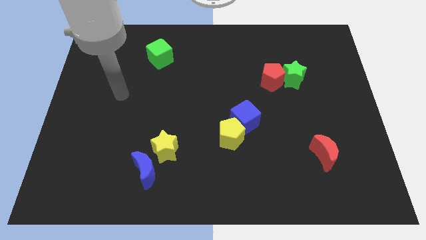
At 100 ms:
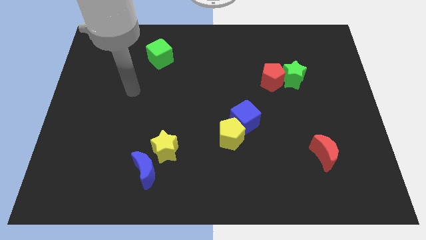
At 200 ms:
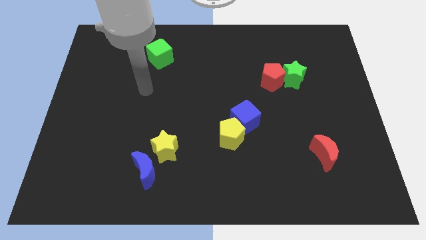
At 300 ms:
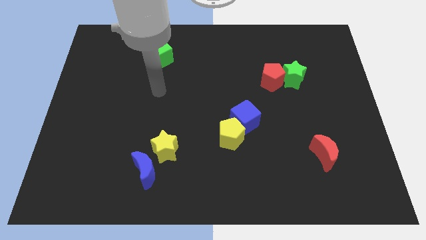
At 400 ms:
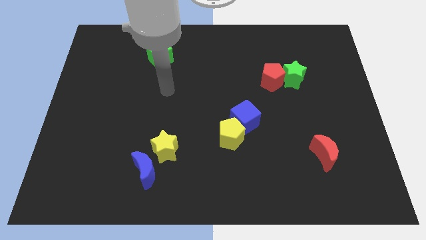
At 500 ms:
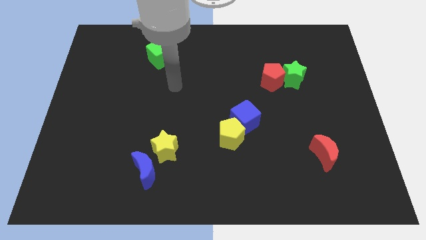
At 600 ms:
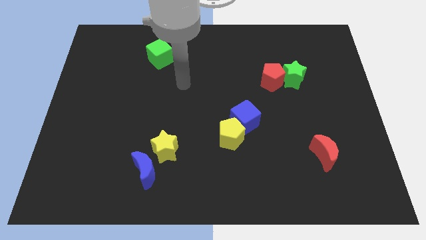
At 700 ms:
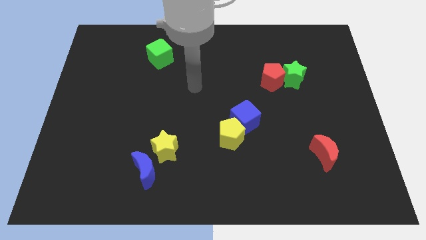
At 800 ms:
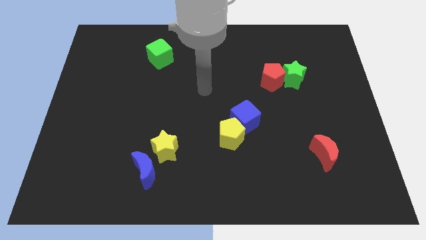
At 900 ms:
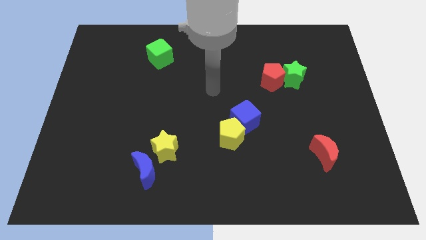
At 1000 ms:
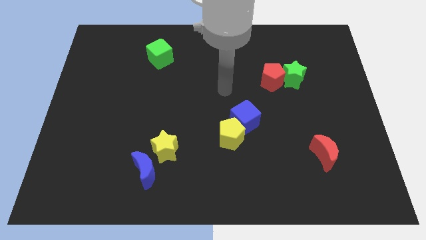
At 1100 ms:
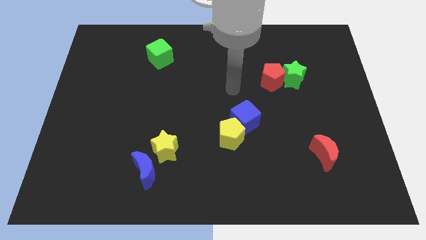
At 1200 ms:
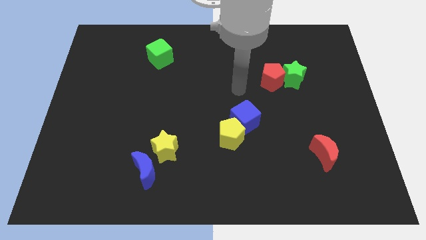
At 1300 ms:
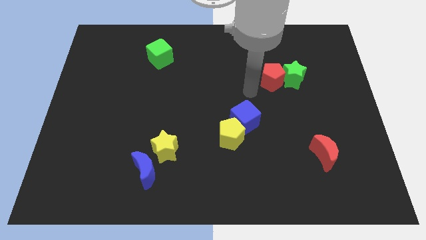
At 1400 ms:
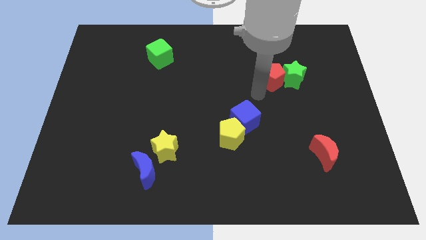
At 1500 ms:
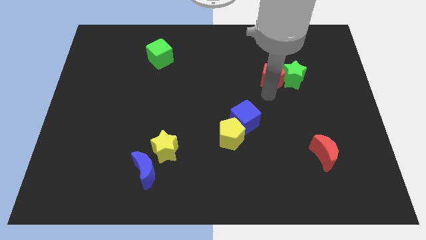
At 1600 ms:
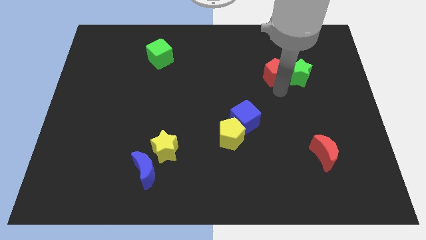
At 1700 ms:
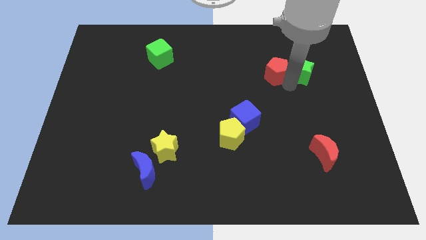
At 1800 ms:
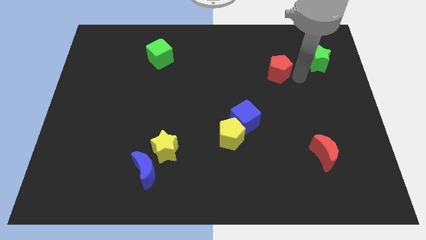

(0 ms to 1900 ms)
pull the red pentagon apart from the green star

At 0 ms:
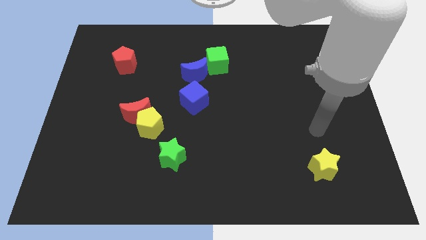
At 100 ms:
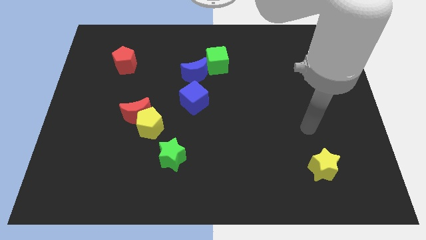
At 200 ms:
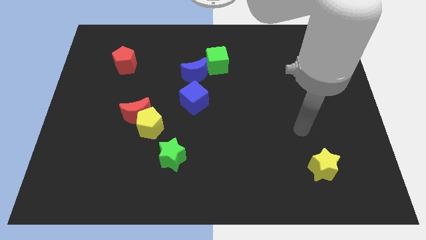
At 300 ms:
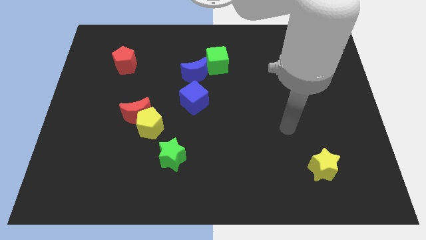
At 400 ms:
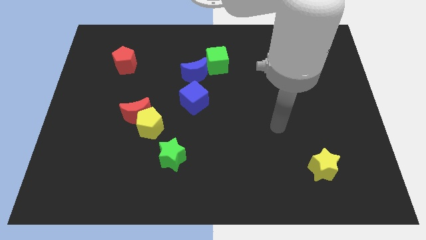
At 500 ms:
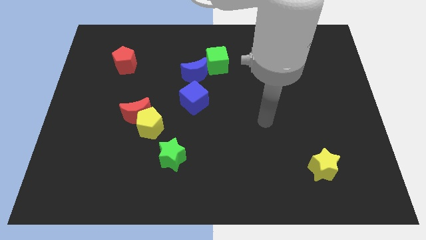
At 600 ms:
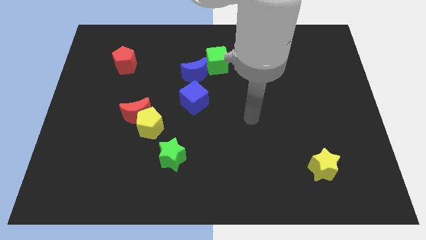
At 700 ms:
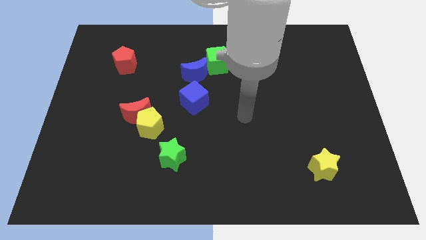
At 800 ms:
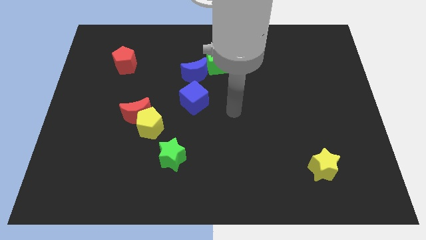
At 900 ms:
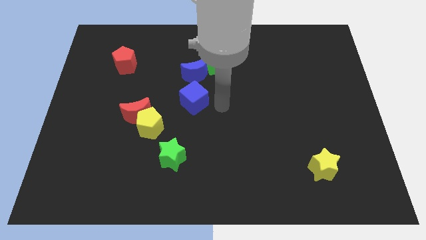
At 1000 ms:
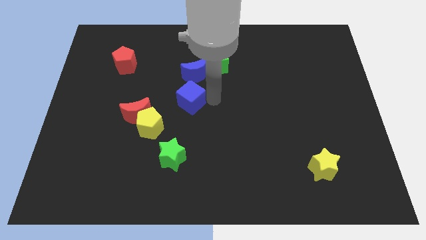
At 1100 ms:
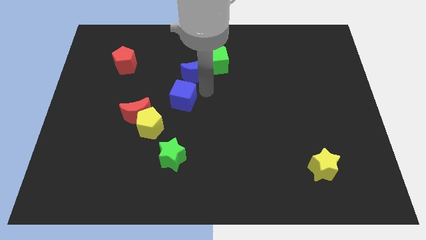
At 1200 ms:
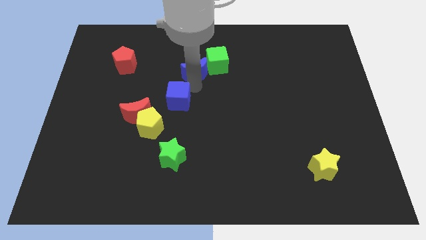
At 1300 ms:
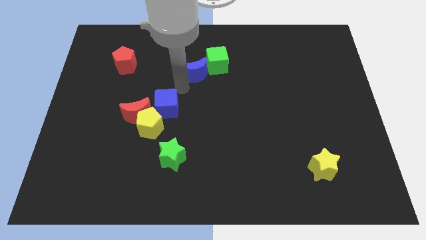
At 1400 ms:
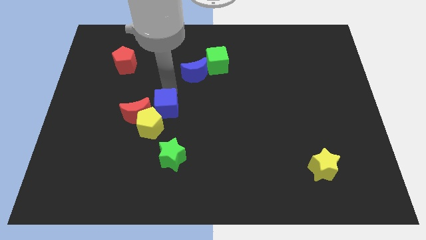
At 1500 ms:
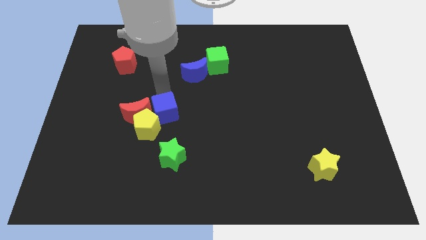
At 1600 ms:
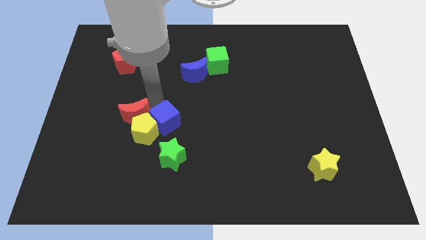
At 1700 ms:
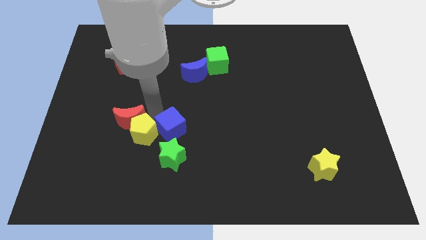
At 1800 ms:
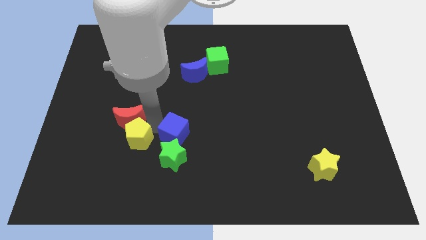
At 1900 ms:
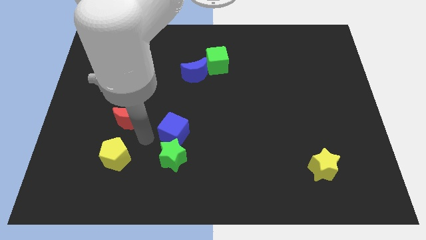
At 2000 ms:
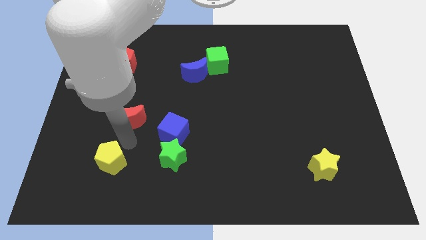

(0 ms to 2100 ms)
pull the red moon apart from the yellow pentagon

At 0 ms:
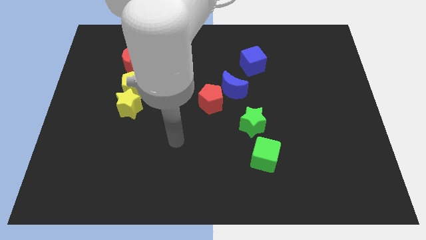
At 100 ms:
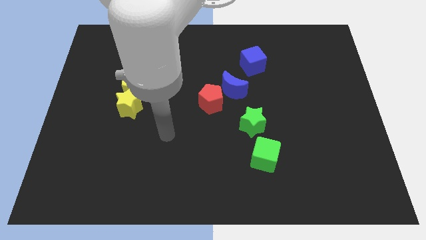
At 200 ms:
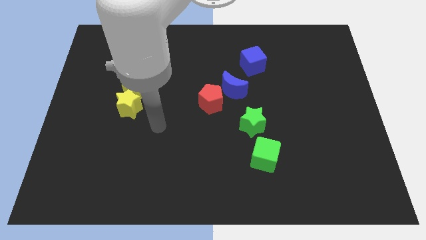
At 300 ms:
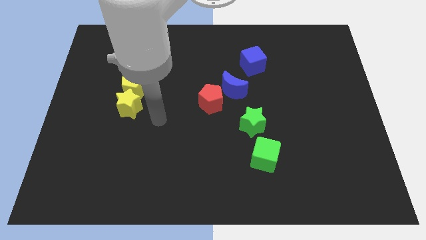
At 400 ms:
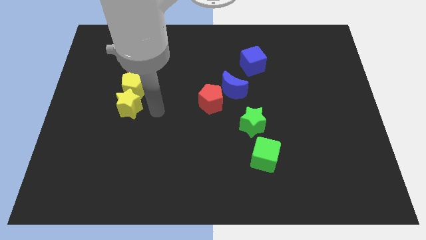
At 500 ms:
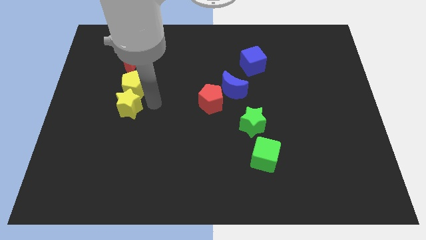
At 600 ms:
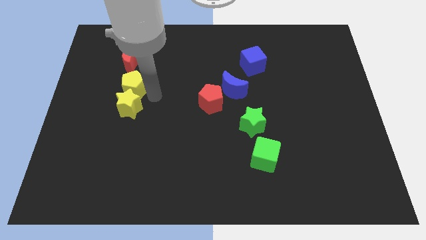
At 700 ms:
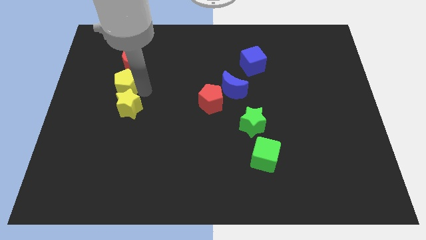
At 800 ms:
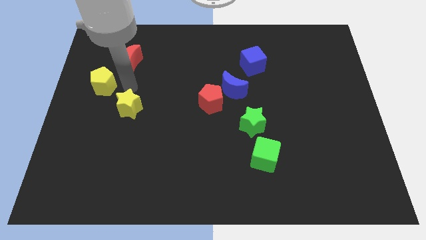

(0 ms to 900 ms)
pull the yellow star apart from the yellow pentagon

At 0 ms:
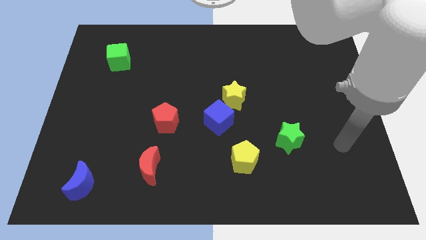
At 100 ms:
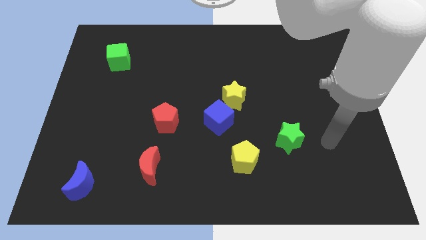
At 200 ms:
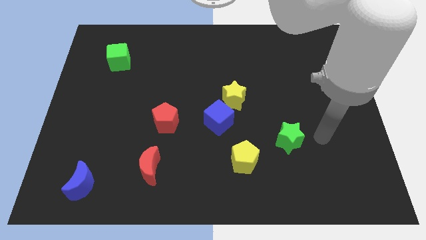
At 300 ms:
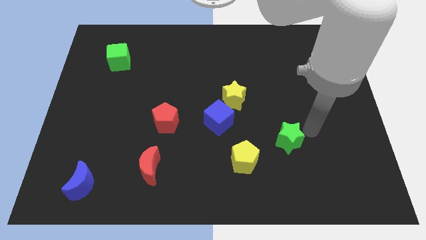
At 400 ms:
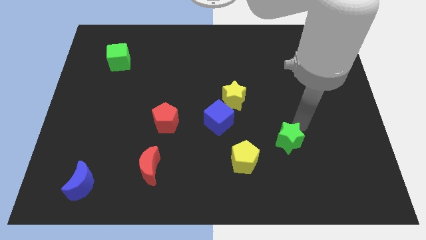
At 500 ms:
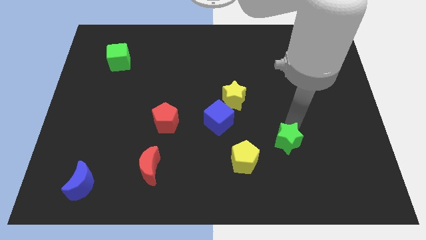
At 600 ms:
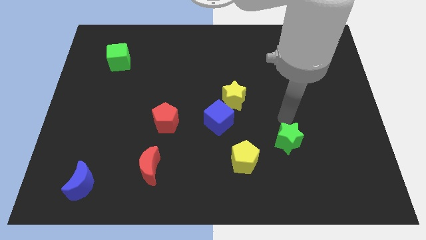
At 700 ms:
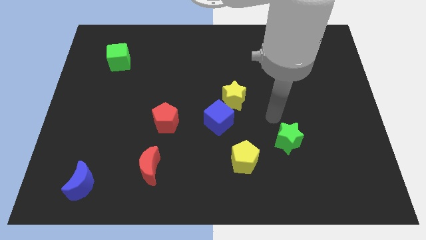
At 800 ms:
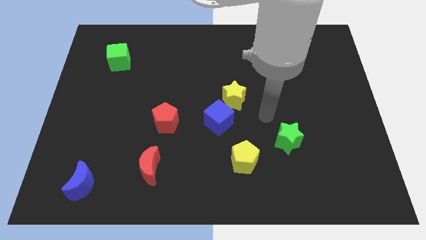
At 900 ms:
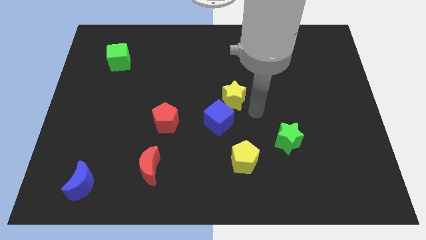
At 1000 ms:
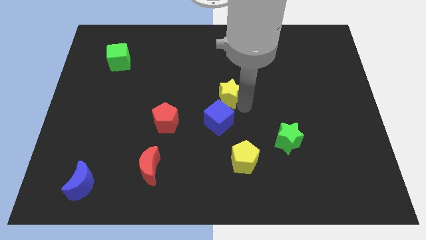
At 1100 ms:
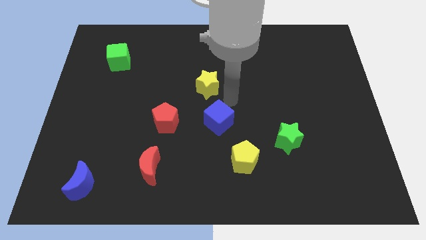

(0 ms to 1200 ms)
pull the blue cube apart from the yellow star

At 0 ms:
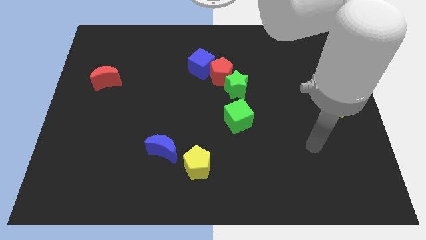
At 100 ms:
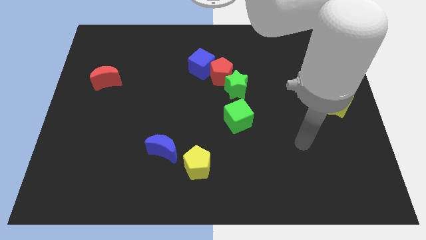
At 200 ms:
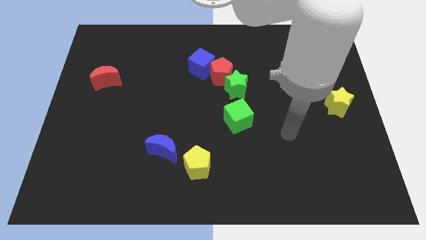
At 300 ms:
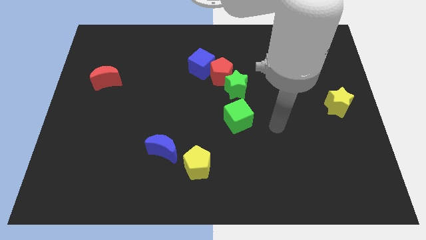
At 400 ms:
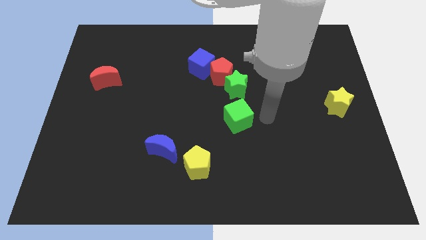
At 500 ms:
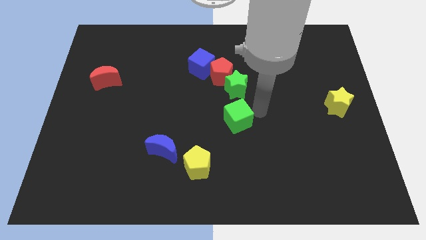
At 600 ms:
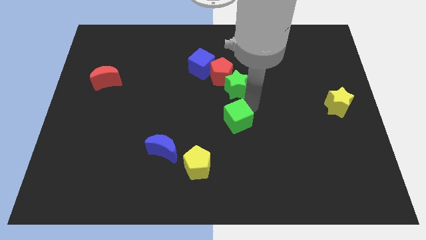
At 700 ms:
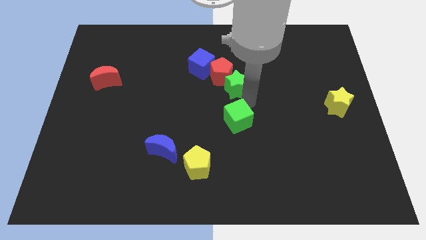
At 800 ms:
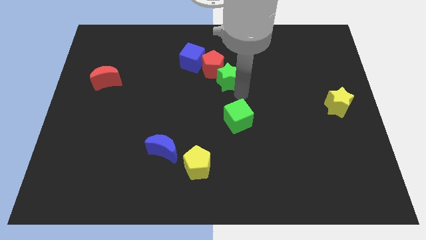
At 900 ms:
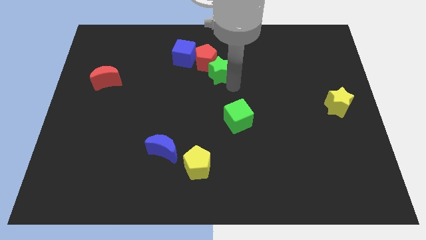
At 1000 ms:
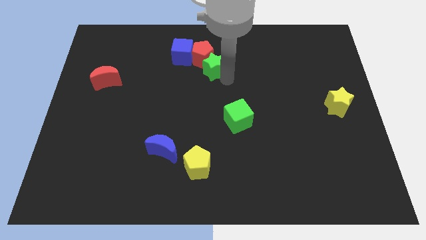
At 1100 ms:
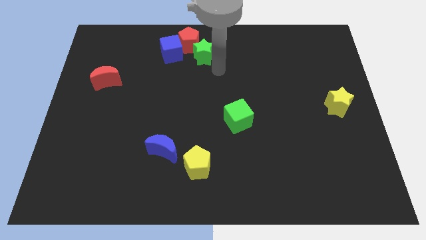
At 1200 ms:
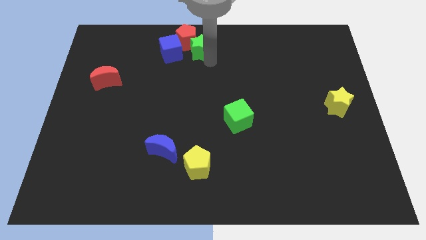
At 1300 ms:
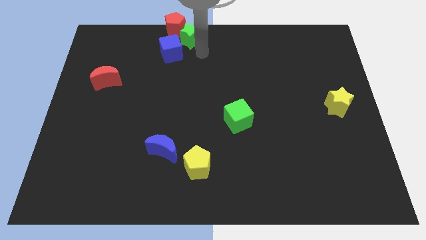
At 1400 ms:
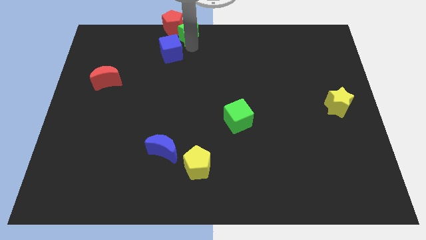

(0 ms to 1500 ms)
separate the blue cube from the red pentagon

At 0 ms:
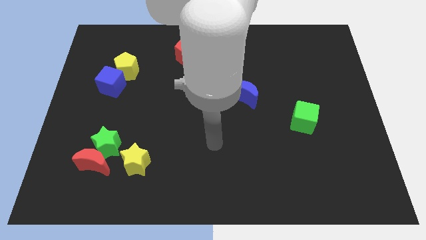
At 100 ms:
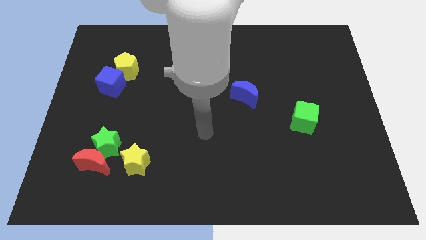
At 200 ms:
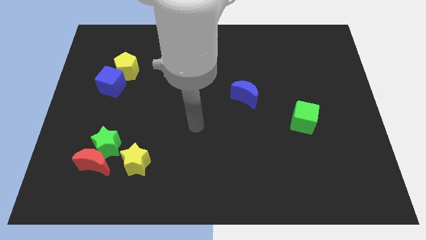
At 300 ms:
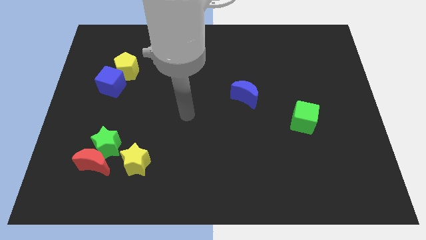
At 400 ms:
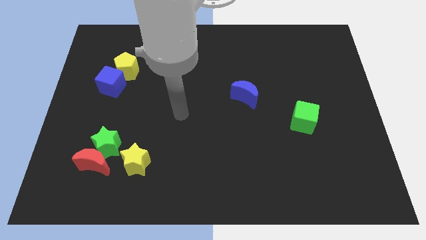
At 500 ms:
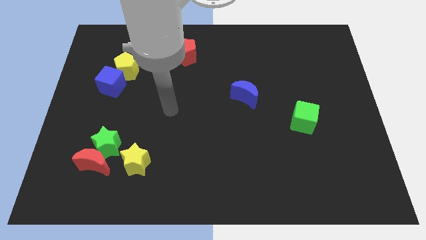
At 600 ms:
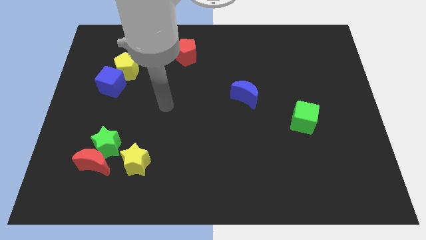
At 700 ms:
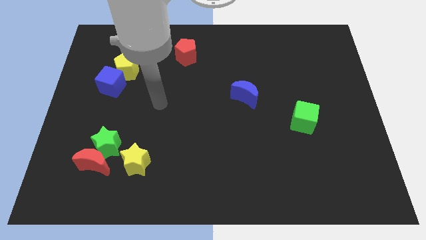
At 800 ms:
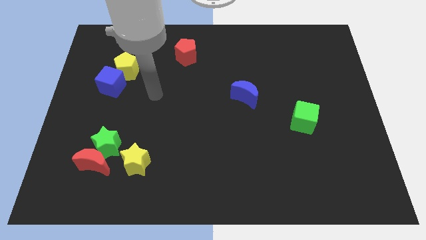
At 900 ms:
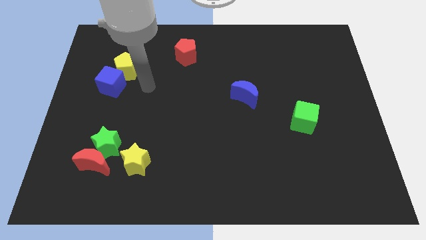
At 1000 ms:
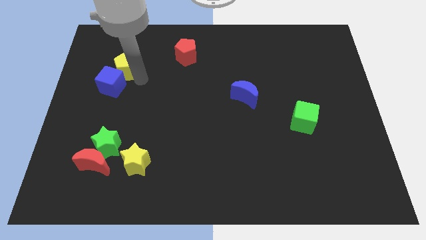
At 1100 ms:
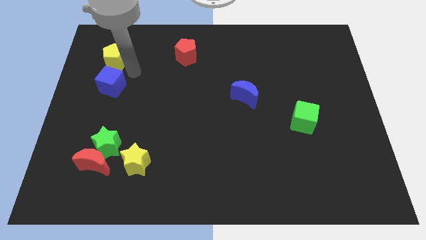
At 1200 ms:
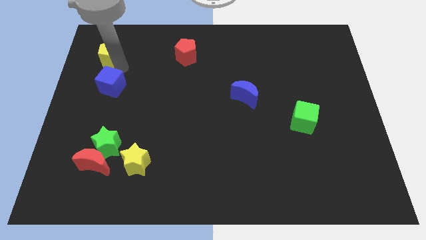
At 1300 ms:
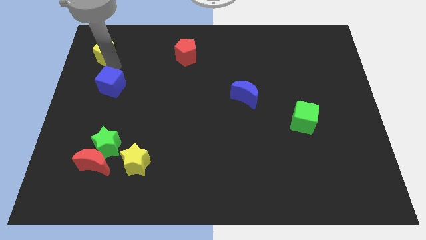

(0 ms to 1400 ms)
pull the blue cube apart from the yellow pentagon

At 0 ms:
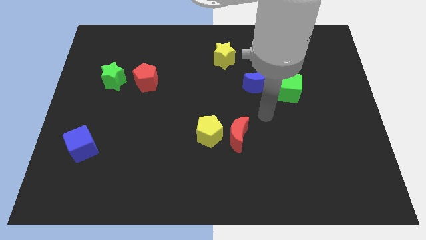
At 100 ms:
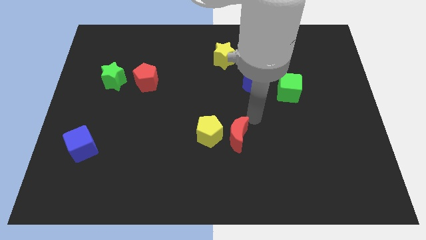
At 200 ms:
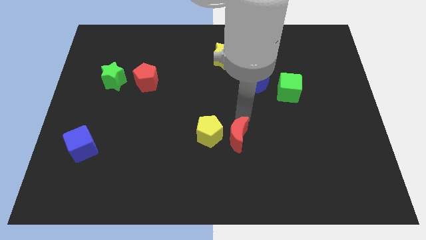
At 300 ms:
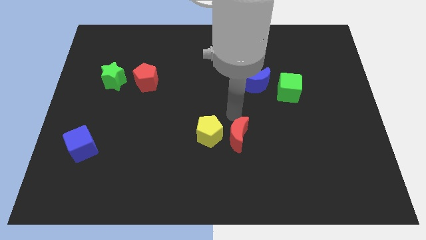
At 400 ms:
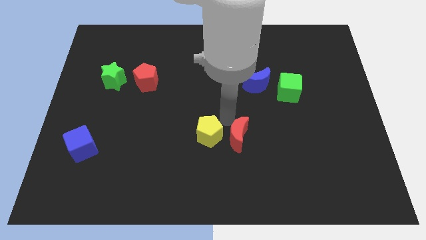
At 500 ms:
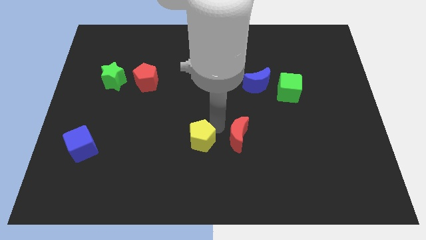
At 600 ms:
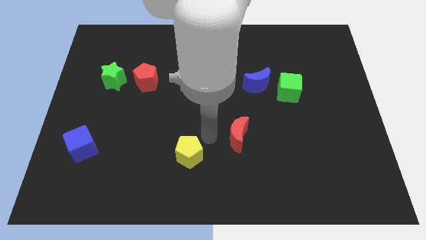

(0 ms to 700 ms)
move the red moon away from the yellow pentagon
